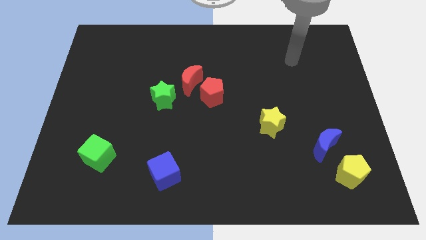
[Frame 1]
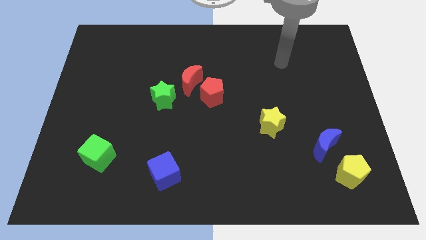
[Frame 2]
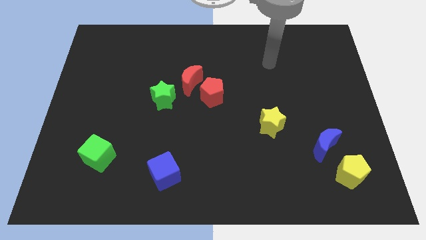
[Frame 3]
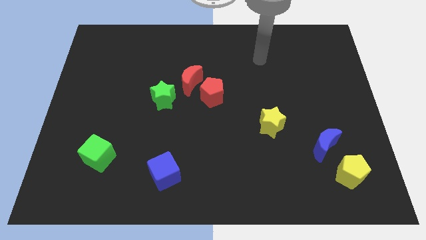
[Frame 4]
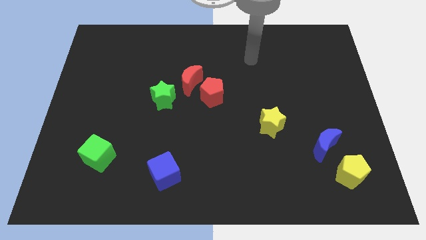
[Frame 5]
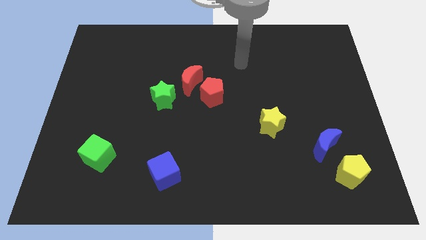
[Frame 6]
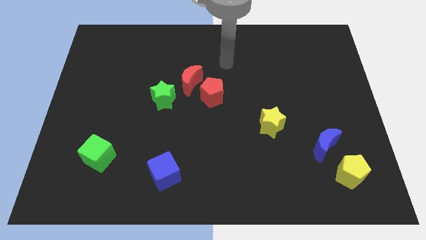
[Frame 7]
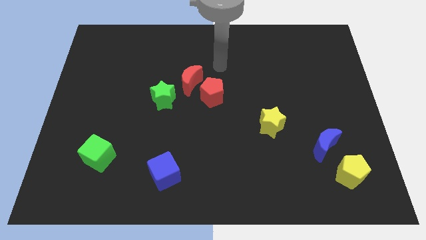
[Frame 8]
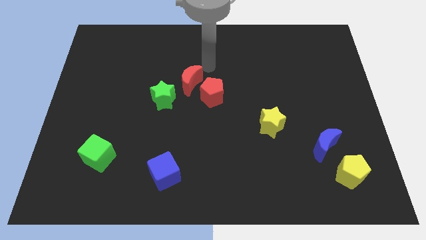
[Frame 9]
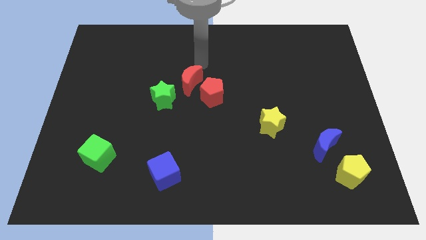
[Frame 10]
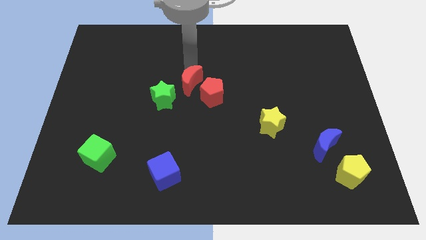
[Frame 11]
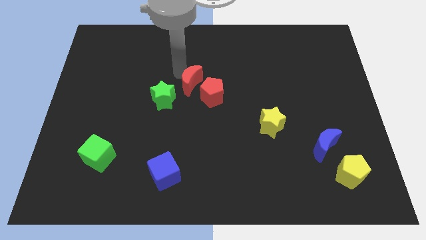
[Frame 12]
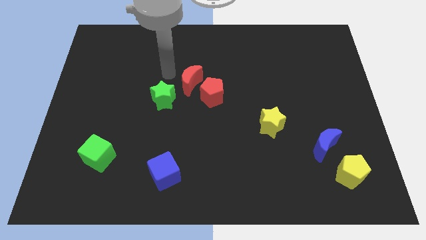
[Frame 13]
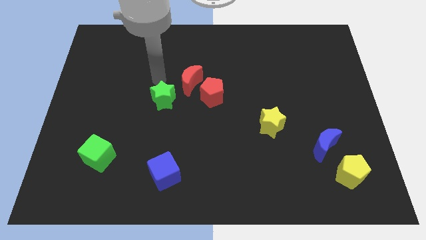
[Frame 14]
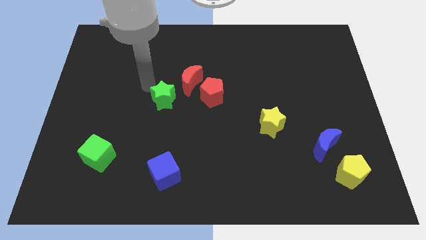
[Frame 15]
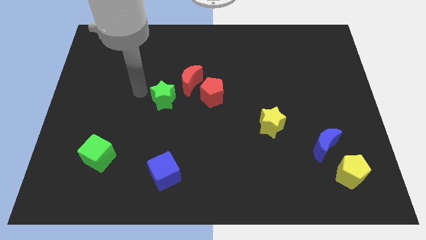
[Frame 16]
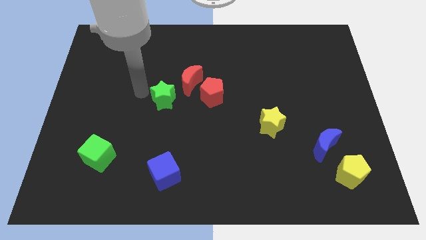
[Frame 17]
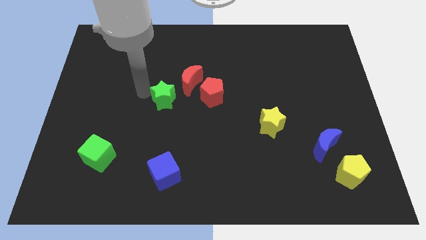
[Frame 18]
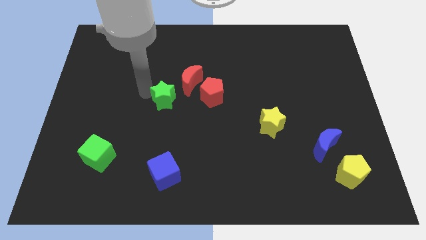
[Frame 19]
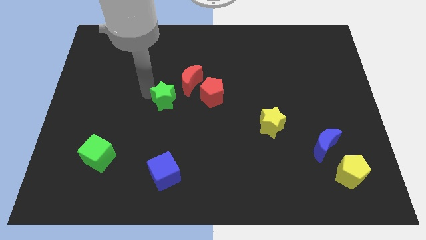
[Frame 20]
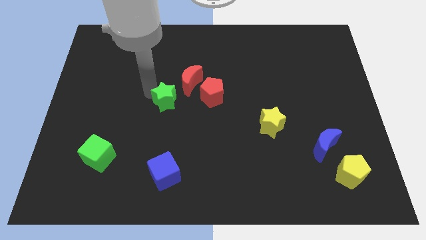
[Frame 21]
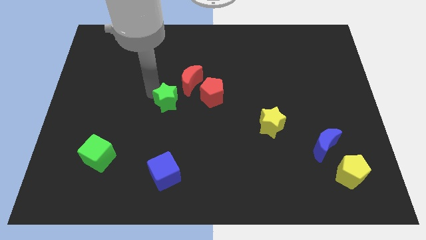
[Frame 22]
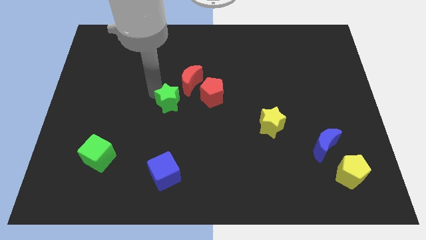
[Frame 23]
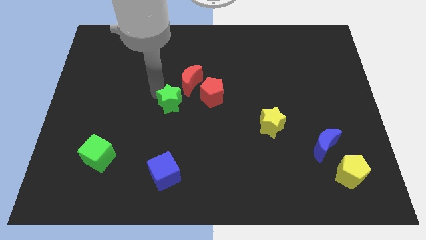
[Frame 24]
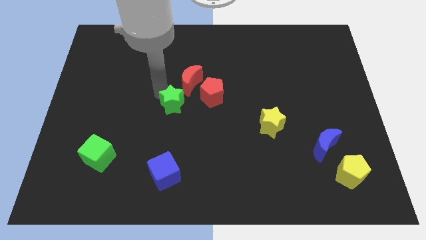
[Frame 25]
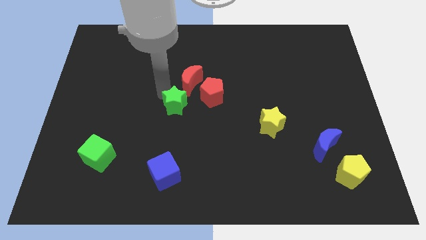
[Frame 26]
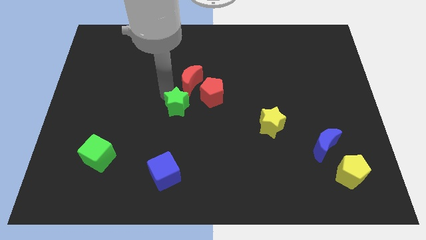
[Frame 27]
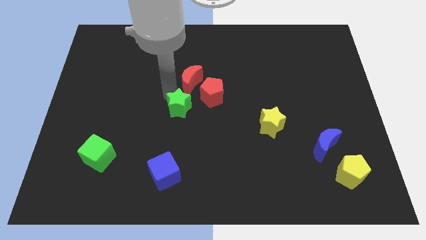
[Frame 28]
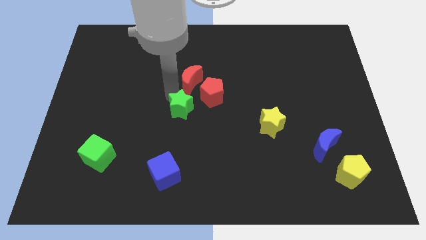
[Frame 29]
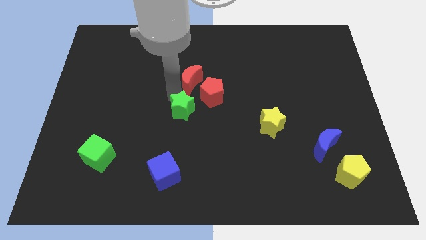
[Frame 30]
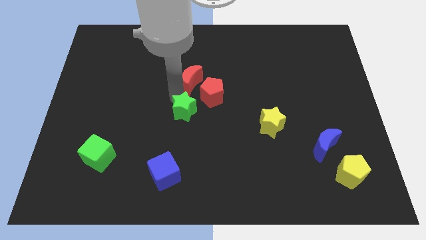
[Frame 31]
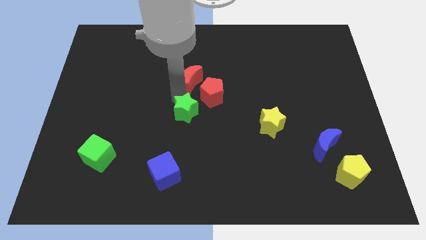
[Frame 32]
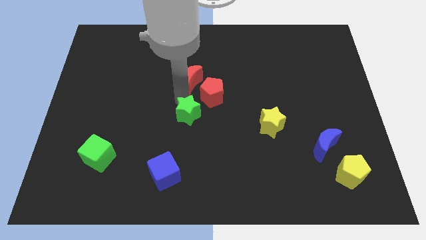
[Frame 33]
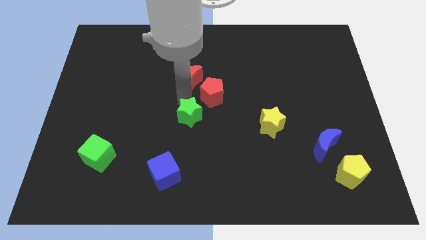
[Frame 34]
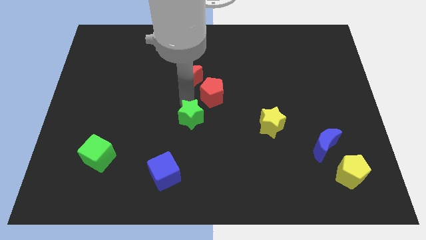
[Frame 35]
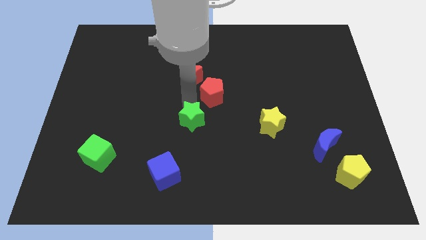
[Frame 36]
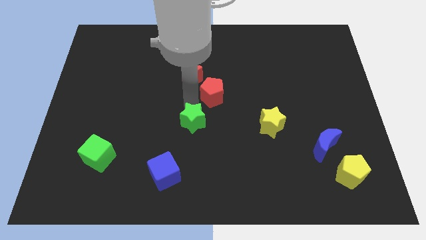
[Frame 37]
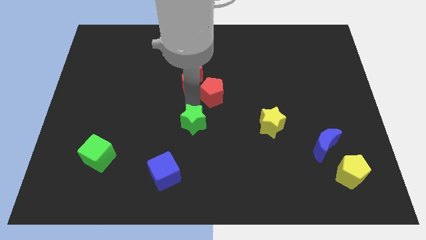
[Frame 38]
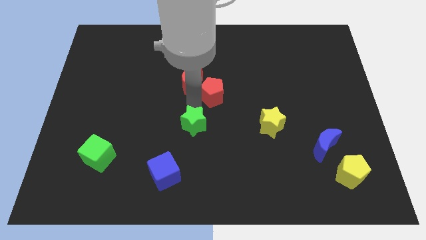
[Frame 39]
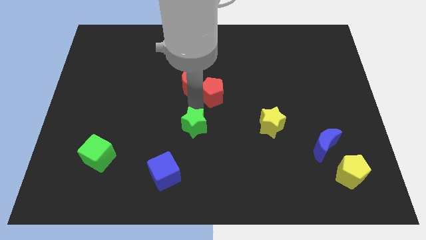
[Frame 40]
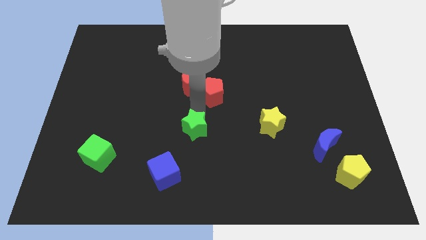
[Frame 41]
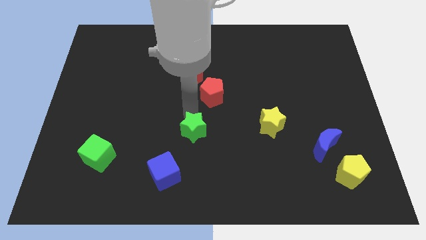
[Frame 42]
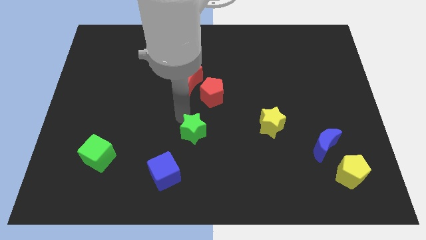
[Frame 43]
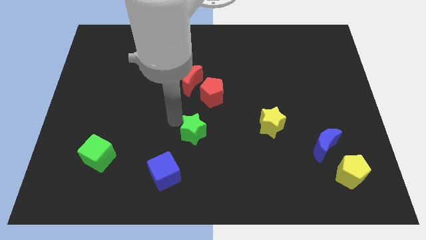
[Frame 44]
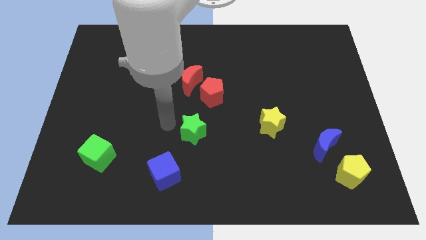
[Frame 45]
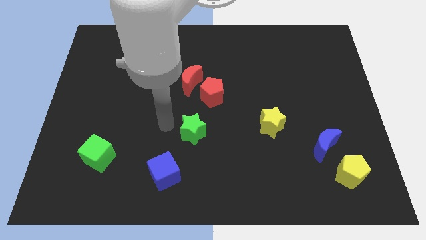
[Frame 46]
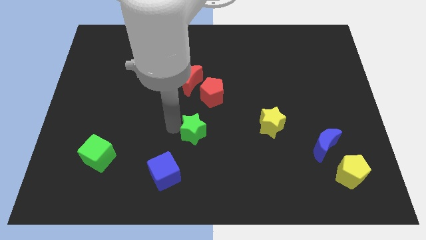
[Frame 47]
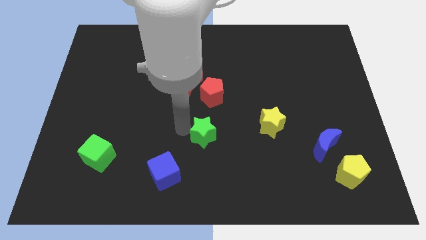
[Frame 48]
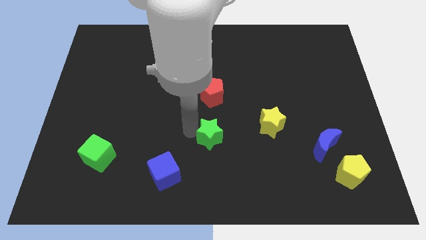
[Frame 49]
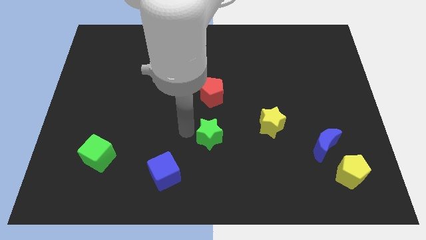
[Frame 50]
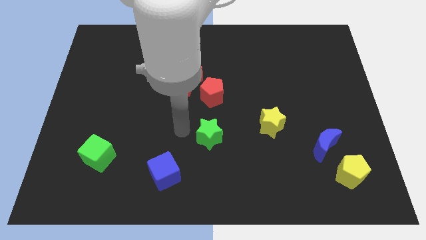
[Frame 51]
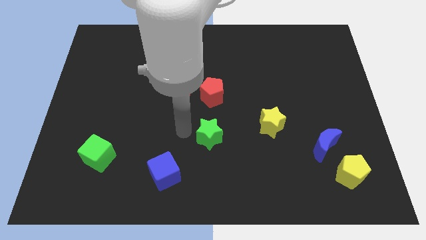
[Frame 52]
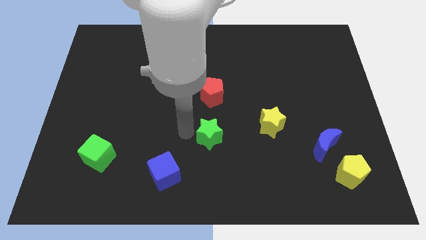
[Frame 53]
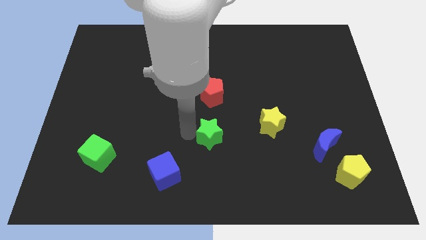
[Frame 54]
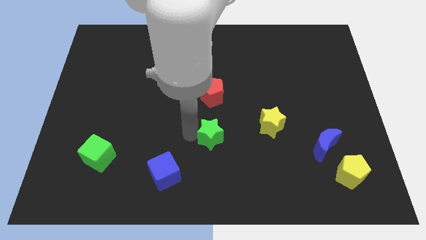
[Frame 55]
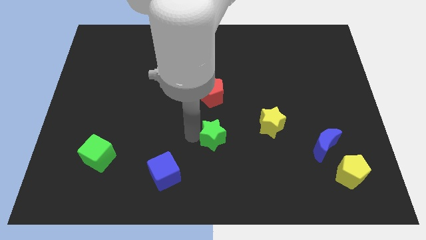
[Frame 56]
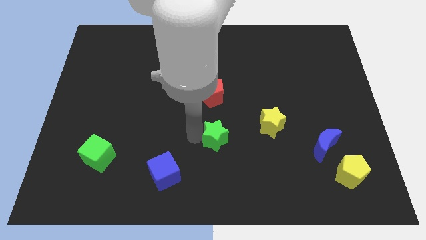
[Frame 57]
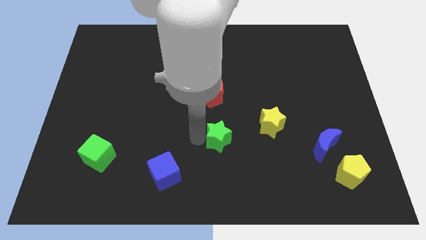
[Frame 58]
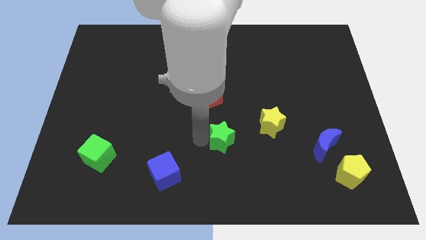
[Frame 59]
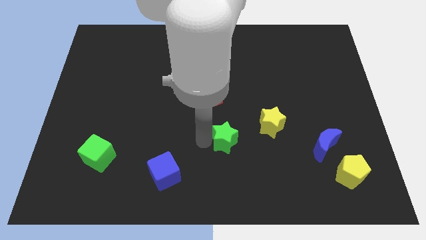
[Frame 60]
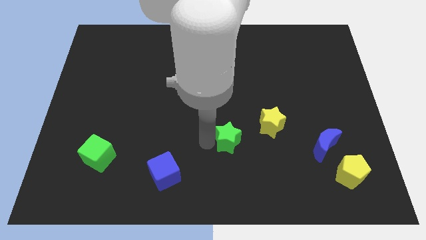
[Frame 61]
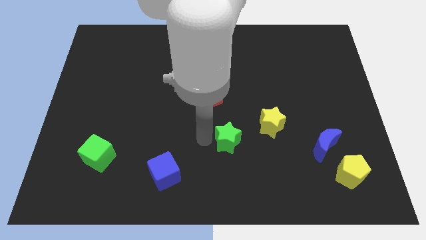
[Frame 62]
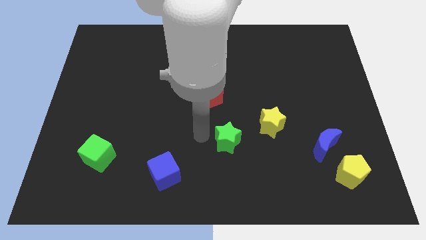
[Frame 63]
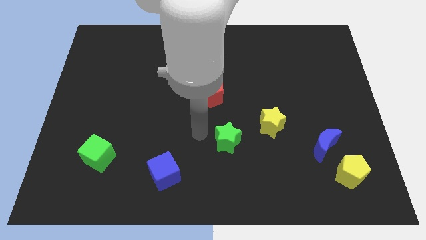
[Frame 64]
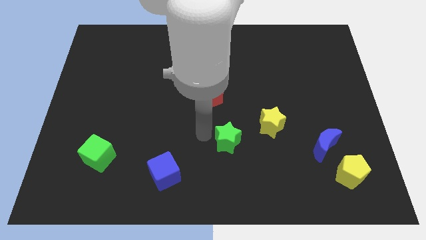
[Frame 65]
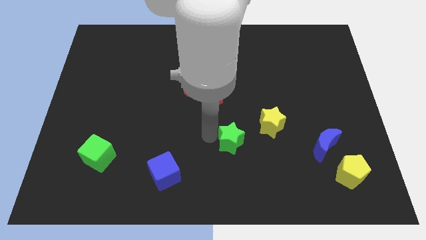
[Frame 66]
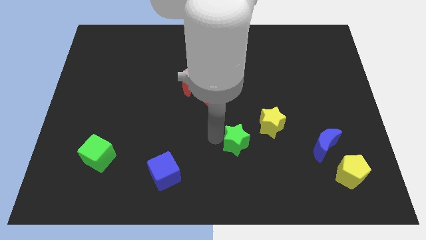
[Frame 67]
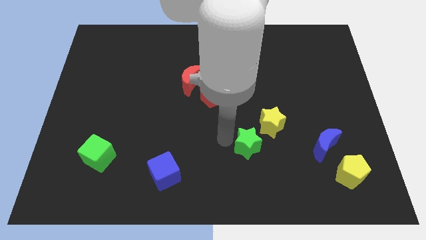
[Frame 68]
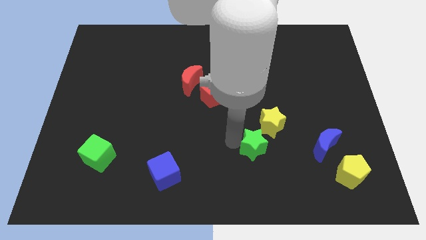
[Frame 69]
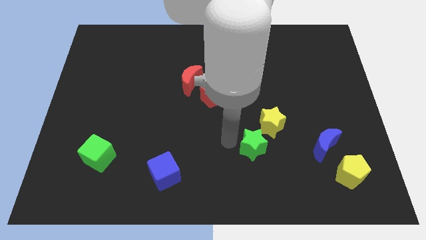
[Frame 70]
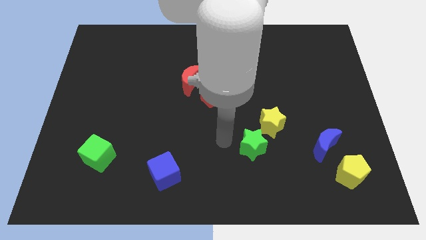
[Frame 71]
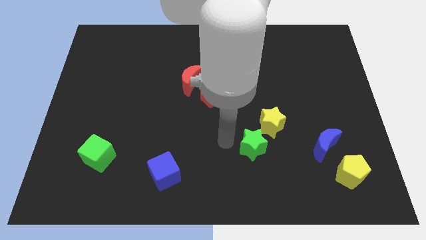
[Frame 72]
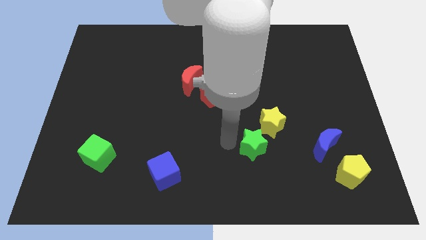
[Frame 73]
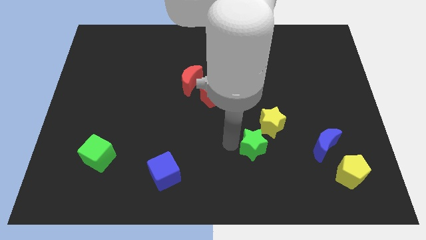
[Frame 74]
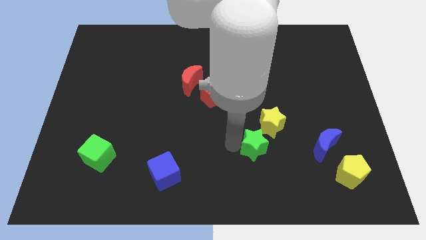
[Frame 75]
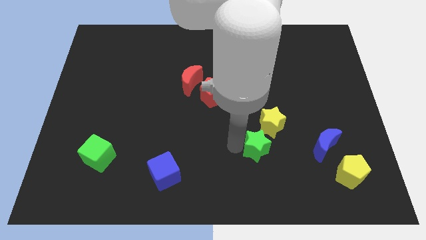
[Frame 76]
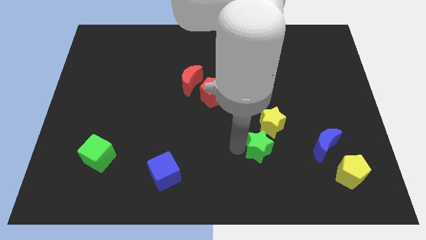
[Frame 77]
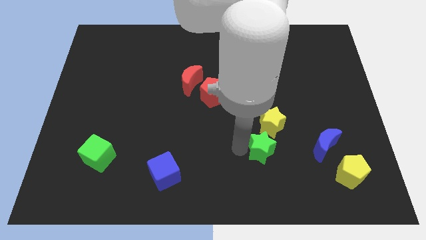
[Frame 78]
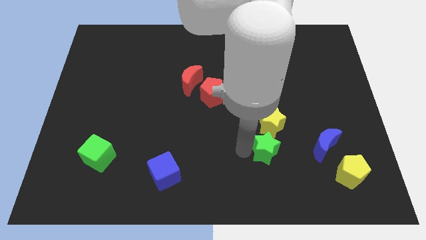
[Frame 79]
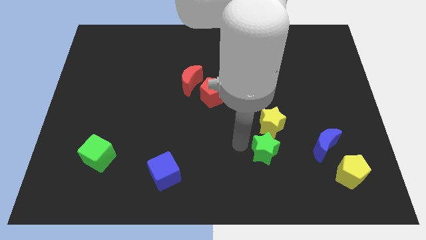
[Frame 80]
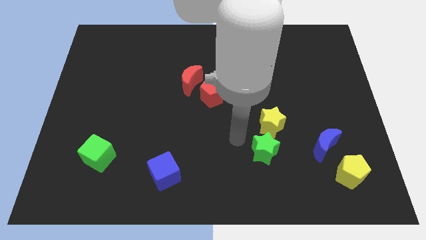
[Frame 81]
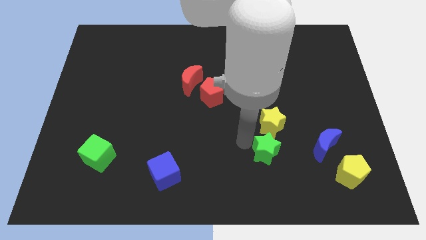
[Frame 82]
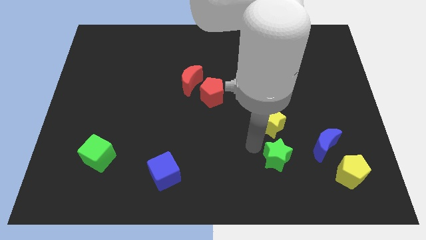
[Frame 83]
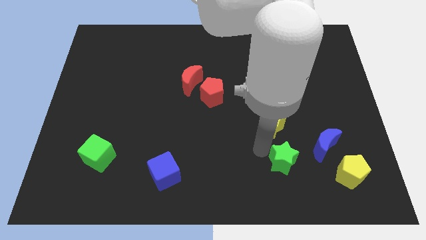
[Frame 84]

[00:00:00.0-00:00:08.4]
put the green star to the bottom left of the blue moon
